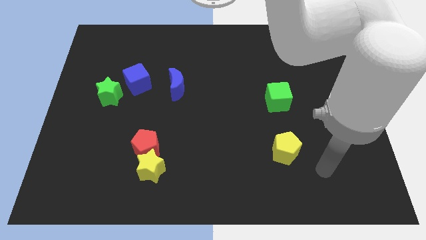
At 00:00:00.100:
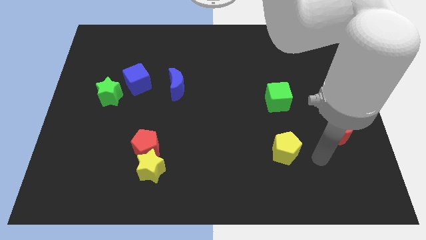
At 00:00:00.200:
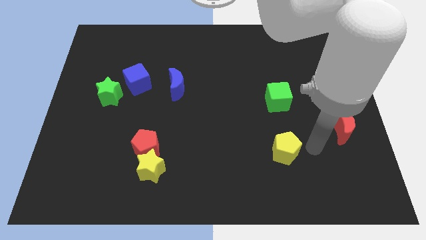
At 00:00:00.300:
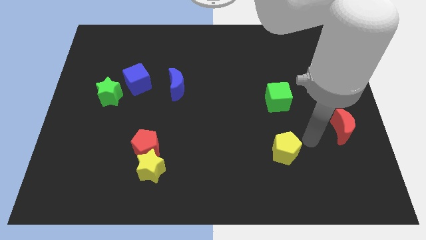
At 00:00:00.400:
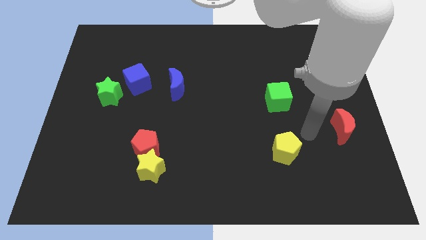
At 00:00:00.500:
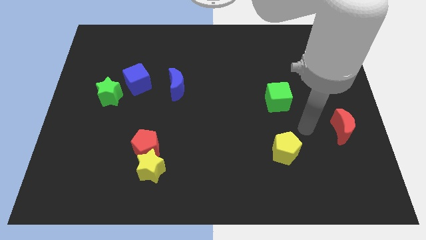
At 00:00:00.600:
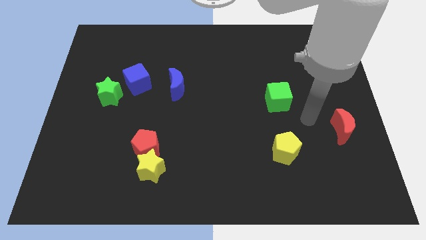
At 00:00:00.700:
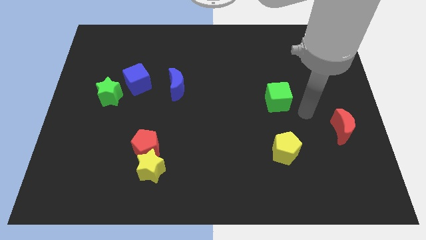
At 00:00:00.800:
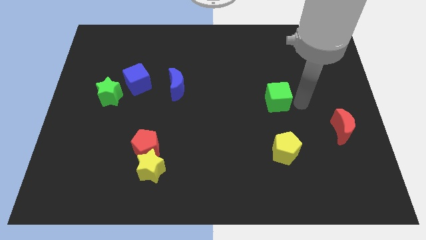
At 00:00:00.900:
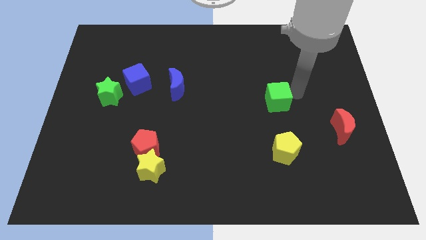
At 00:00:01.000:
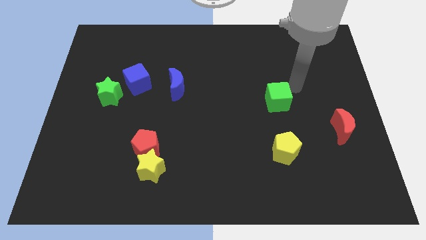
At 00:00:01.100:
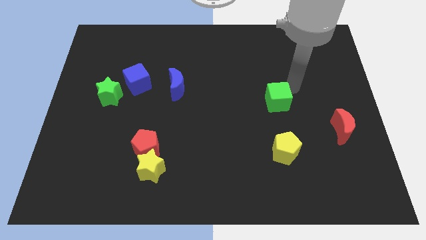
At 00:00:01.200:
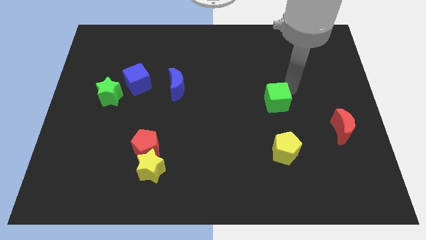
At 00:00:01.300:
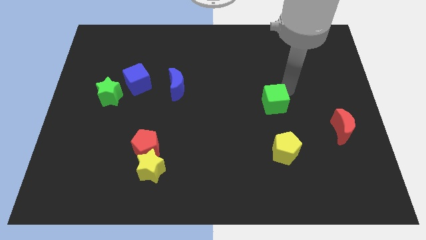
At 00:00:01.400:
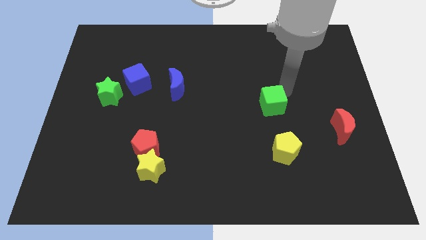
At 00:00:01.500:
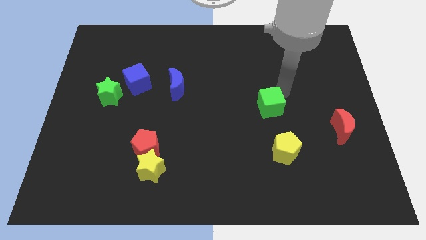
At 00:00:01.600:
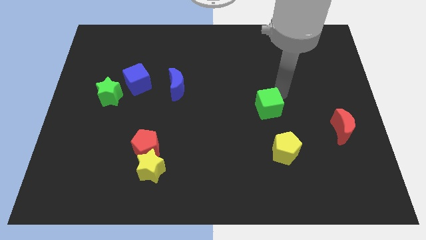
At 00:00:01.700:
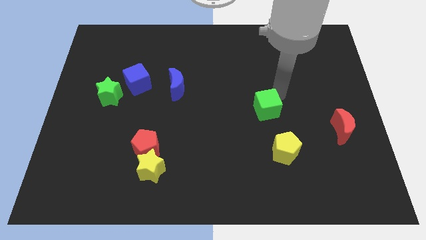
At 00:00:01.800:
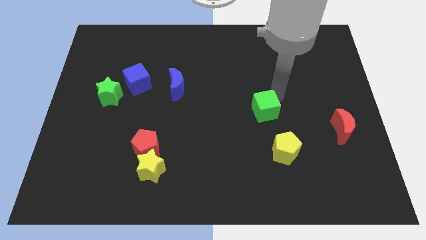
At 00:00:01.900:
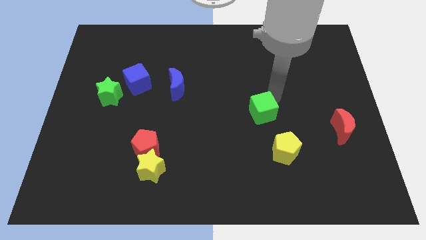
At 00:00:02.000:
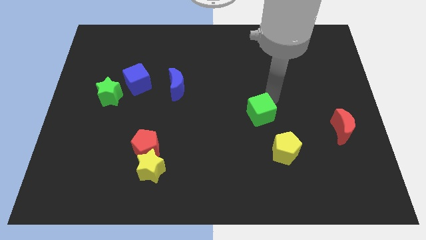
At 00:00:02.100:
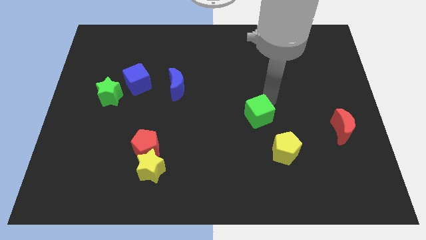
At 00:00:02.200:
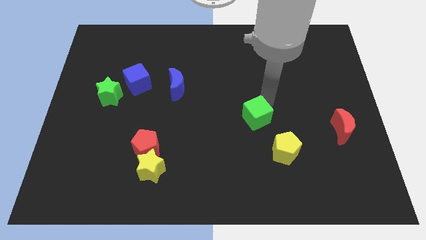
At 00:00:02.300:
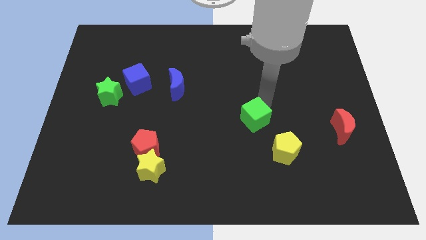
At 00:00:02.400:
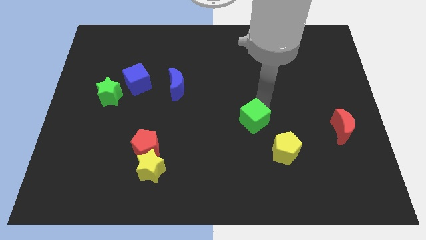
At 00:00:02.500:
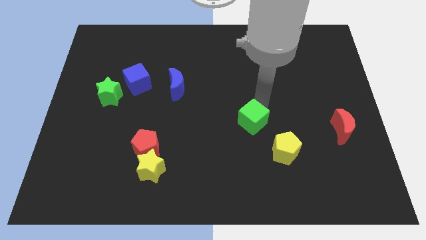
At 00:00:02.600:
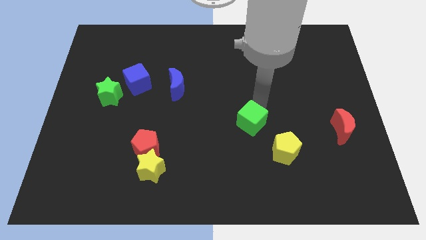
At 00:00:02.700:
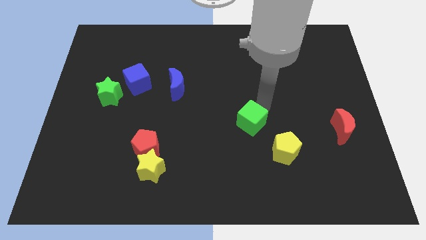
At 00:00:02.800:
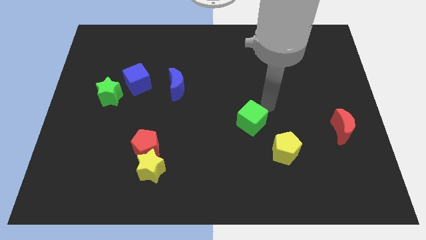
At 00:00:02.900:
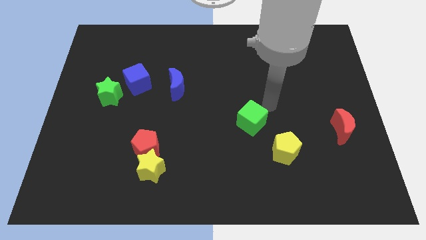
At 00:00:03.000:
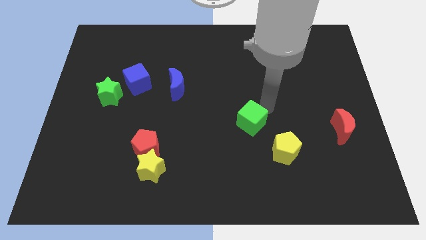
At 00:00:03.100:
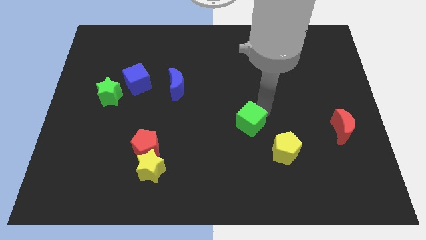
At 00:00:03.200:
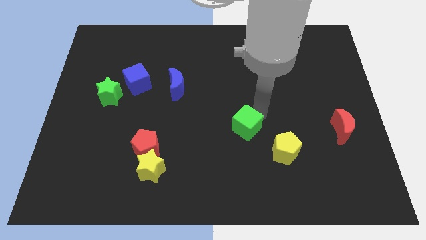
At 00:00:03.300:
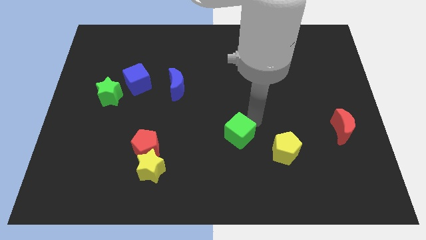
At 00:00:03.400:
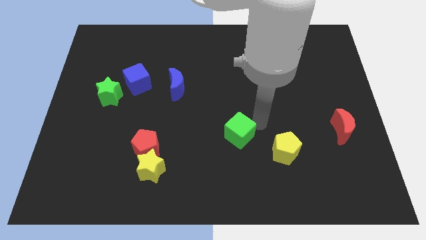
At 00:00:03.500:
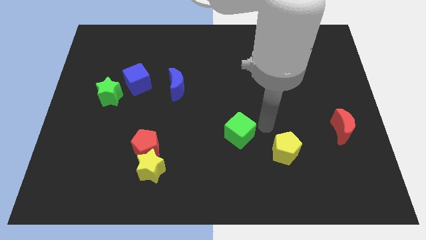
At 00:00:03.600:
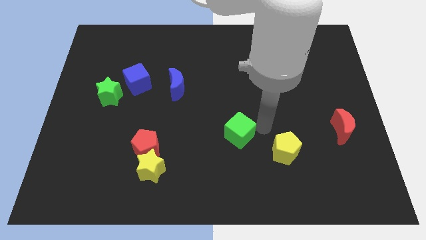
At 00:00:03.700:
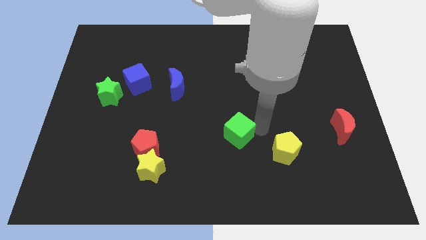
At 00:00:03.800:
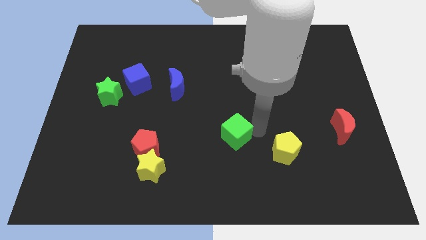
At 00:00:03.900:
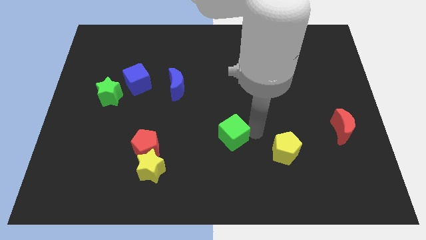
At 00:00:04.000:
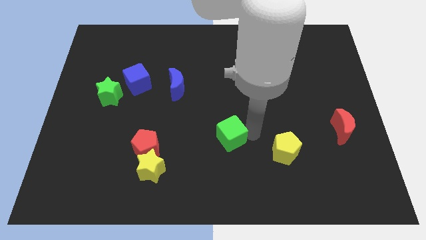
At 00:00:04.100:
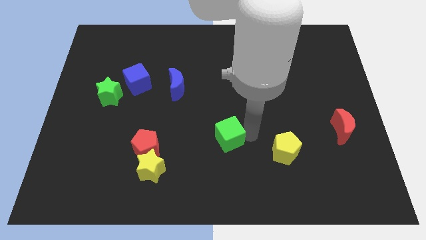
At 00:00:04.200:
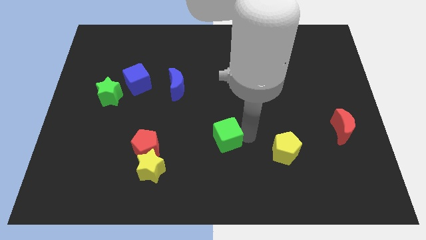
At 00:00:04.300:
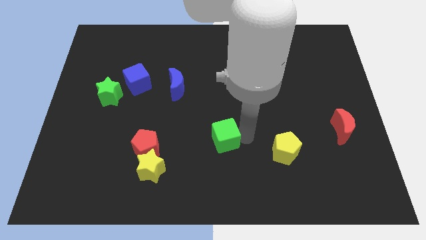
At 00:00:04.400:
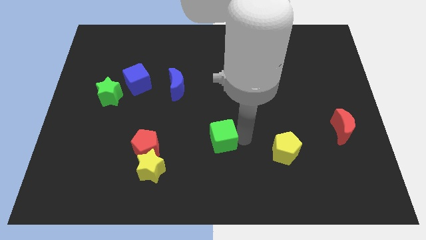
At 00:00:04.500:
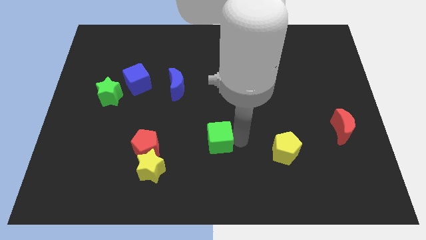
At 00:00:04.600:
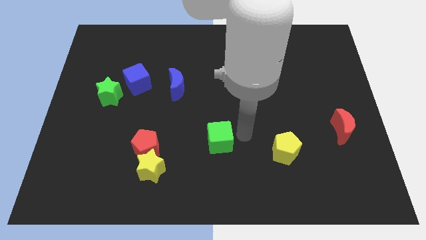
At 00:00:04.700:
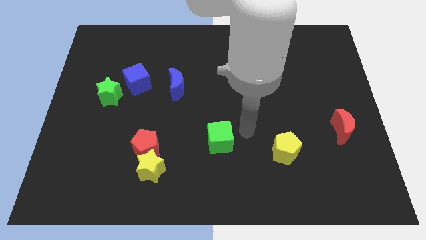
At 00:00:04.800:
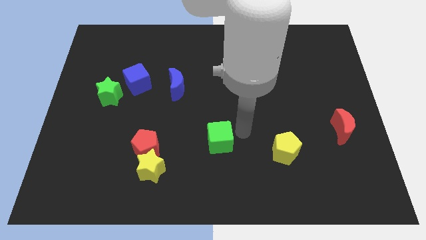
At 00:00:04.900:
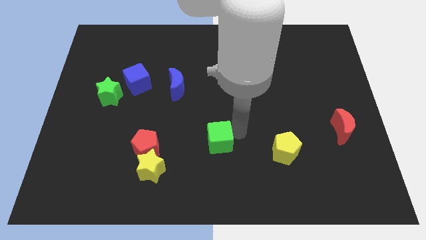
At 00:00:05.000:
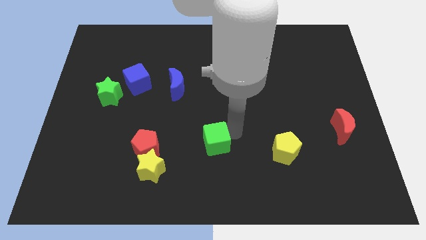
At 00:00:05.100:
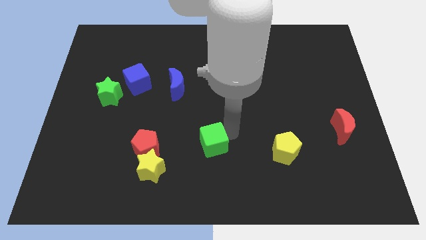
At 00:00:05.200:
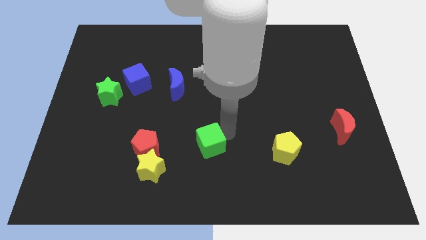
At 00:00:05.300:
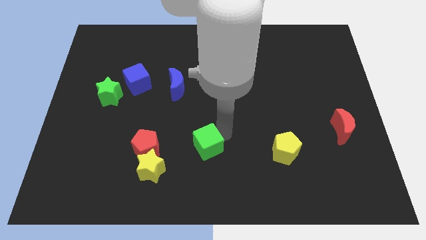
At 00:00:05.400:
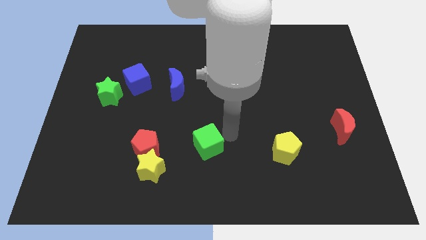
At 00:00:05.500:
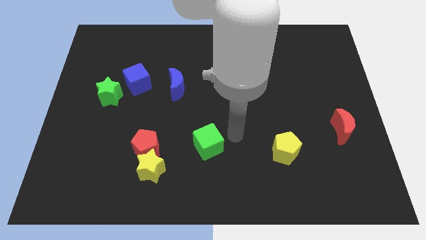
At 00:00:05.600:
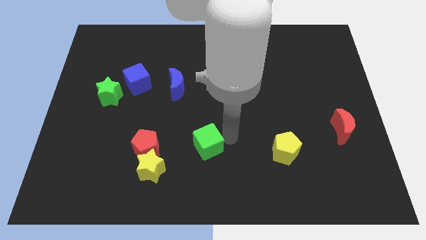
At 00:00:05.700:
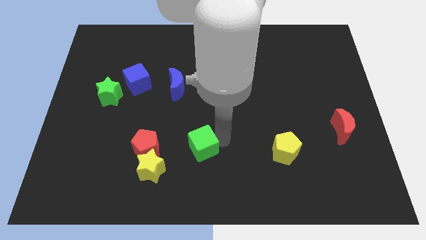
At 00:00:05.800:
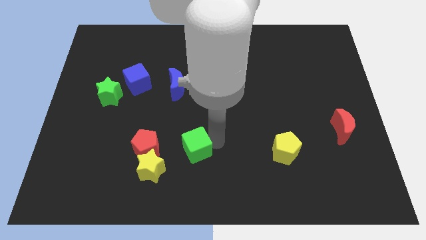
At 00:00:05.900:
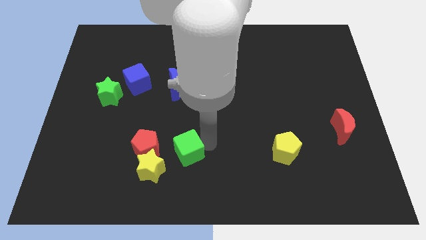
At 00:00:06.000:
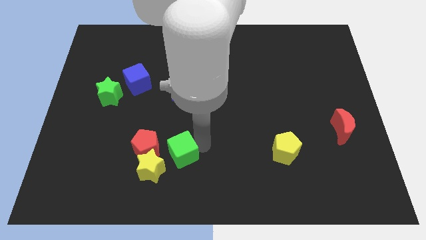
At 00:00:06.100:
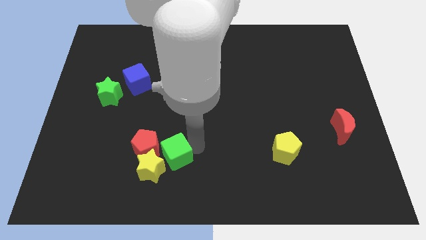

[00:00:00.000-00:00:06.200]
move the green cube close to the yellow star
